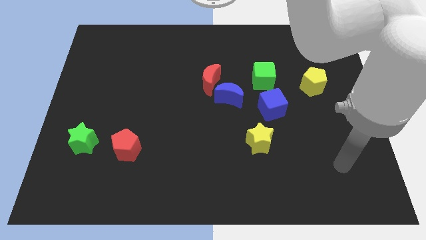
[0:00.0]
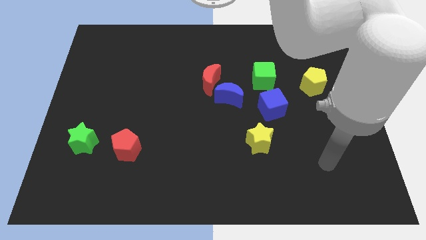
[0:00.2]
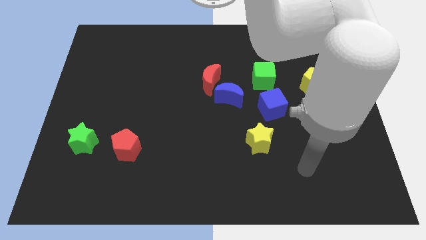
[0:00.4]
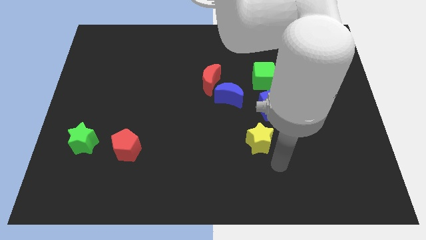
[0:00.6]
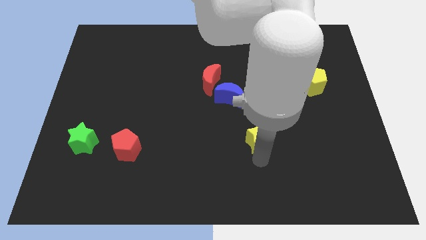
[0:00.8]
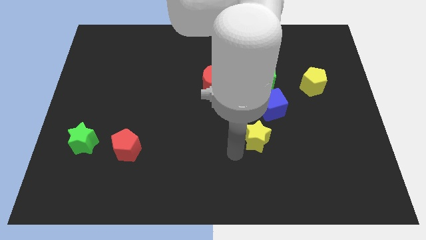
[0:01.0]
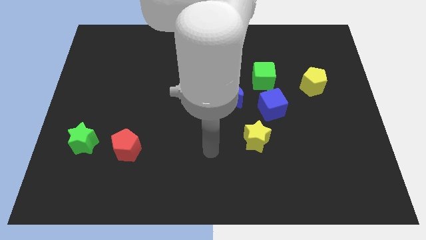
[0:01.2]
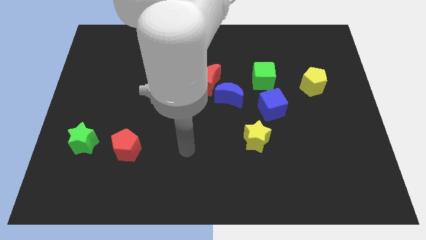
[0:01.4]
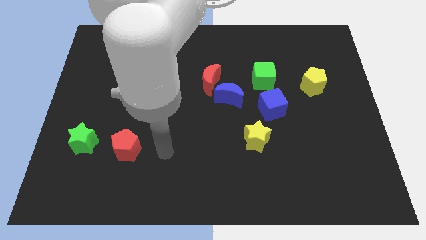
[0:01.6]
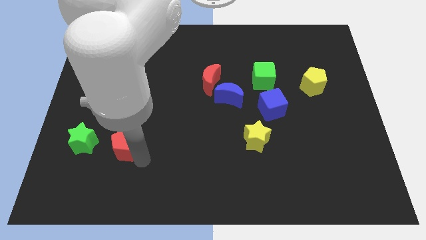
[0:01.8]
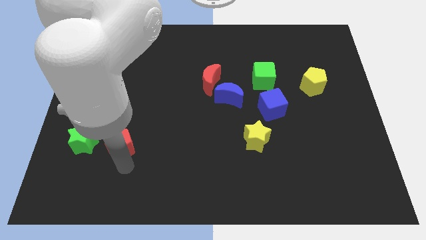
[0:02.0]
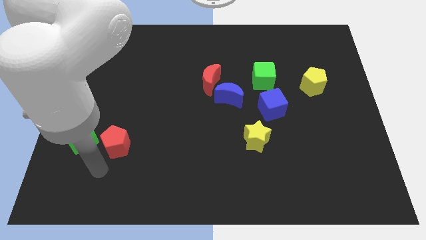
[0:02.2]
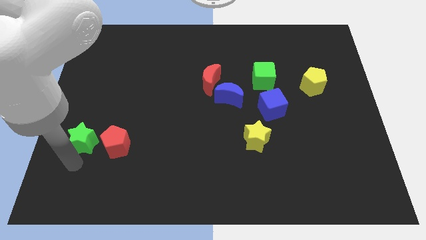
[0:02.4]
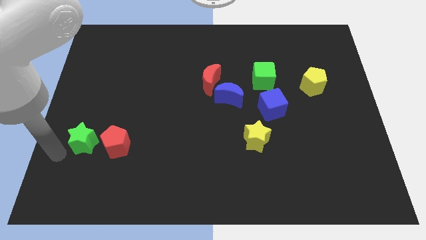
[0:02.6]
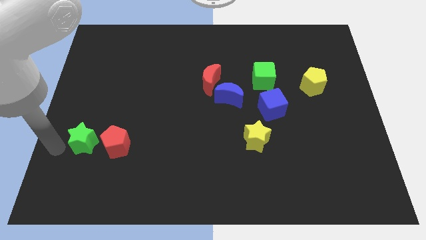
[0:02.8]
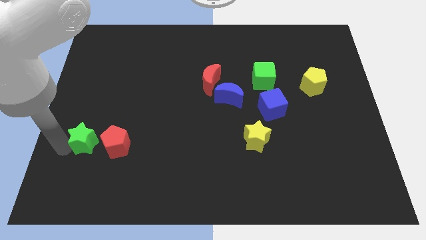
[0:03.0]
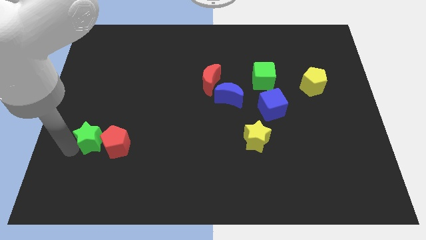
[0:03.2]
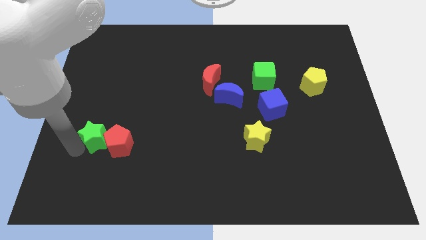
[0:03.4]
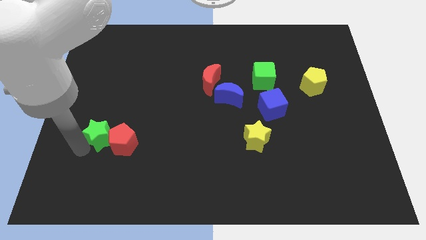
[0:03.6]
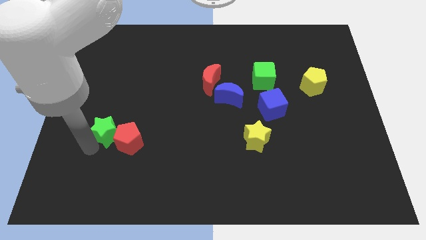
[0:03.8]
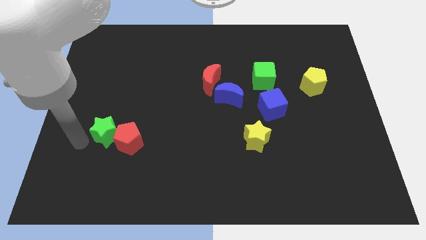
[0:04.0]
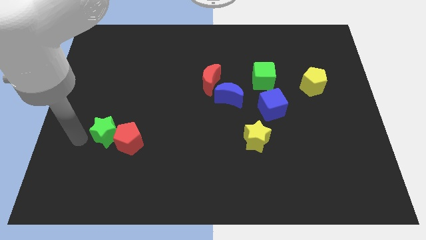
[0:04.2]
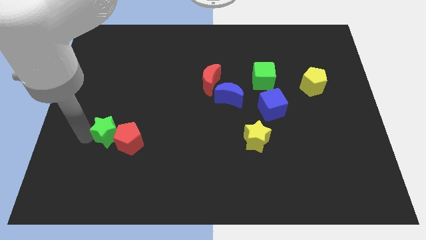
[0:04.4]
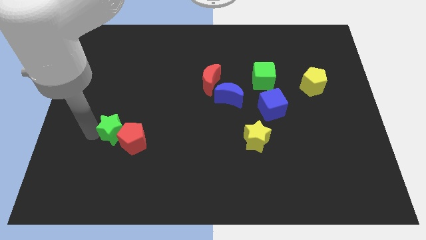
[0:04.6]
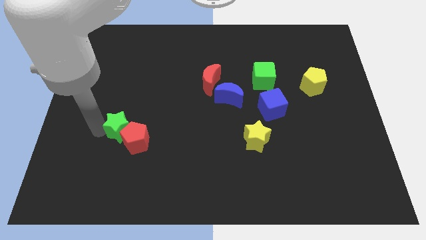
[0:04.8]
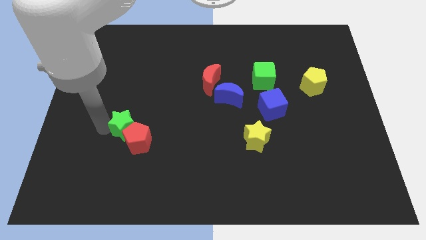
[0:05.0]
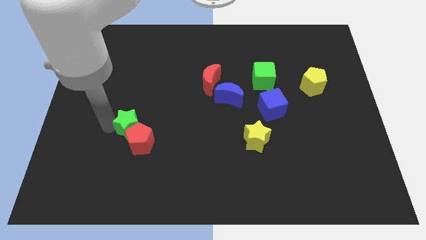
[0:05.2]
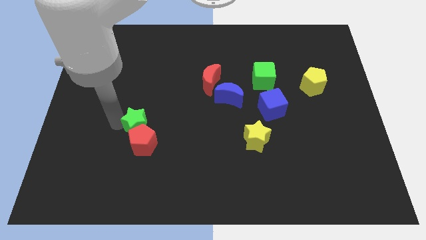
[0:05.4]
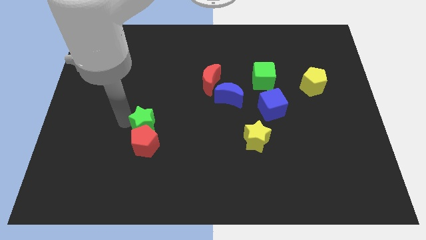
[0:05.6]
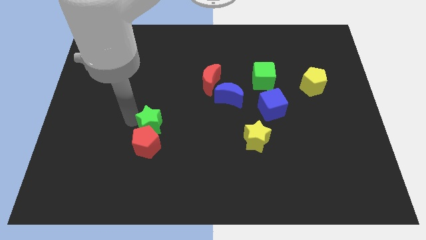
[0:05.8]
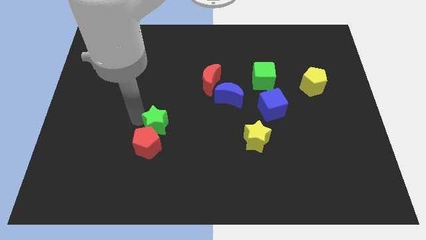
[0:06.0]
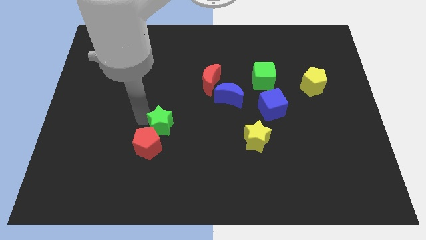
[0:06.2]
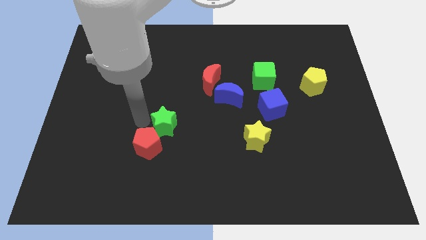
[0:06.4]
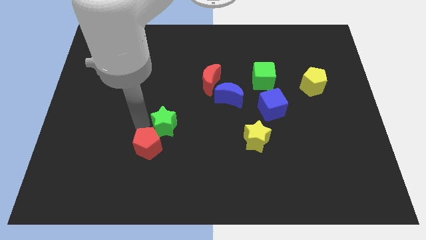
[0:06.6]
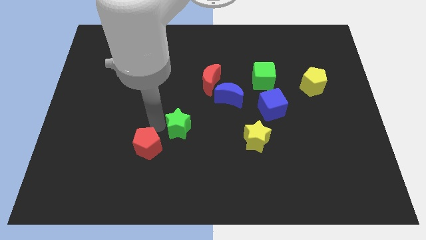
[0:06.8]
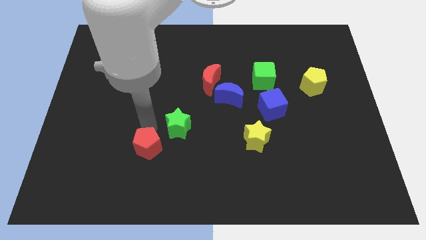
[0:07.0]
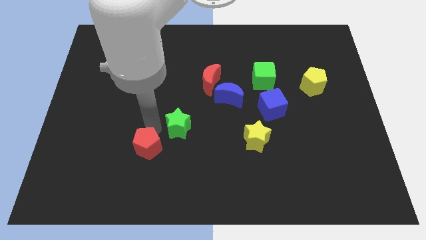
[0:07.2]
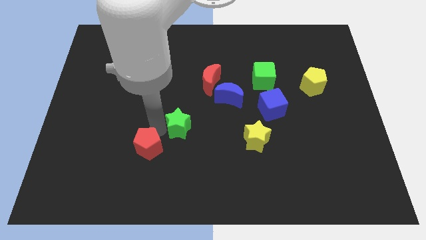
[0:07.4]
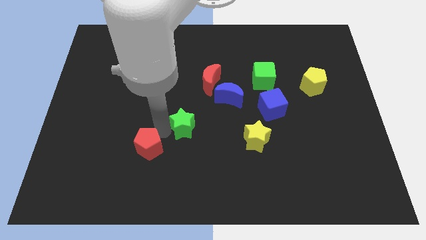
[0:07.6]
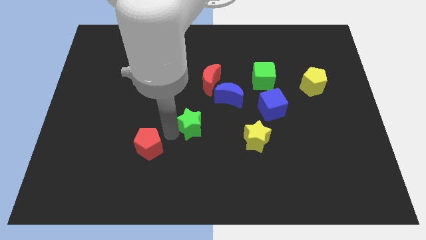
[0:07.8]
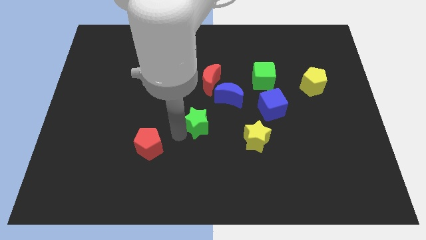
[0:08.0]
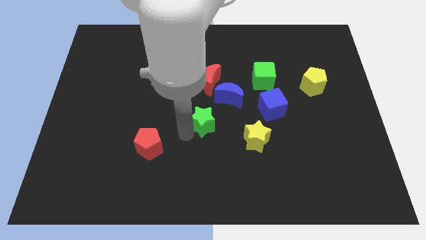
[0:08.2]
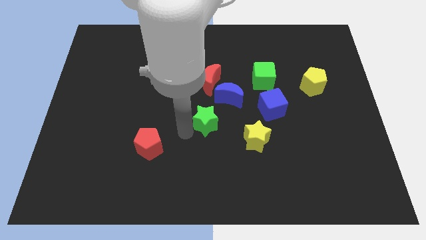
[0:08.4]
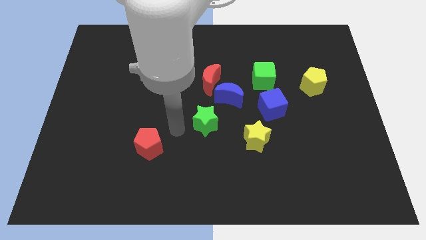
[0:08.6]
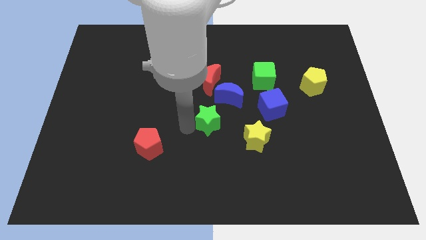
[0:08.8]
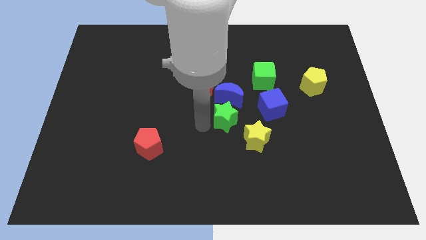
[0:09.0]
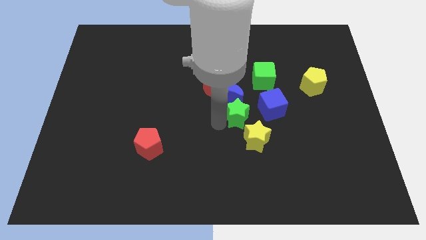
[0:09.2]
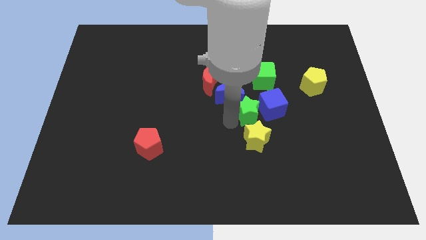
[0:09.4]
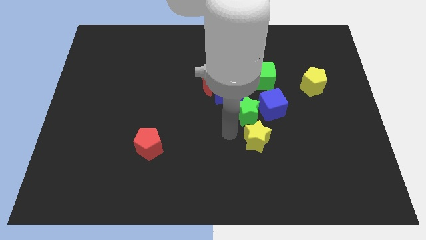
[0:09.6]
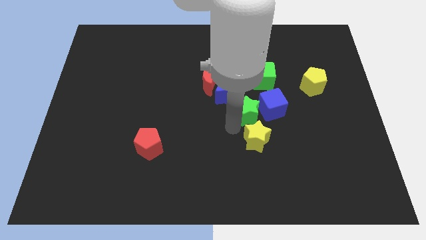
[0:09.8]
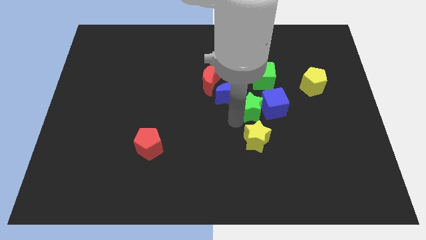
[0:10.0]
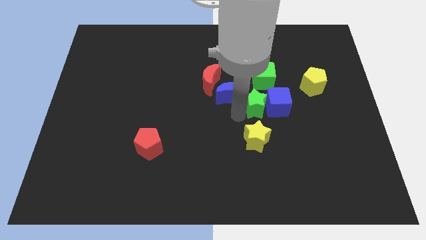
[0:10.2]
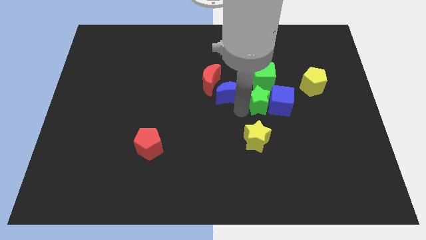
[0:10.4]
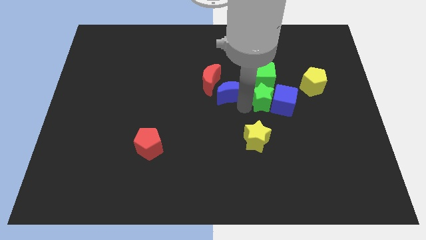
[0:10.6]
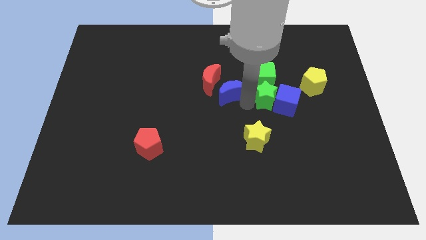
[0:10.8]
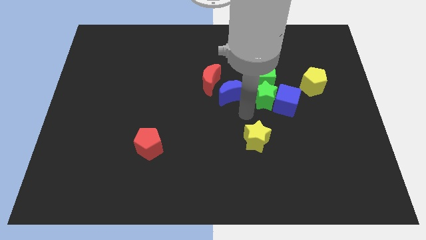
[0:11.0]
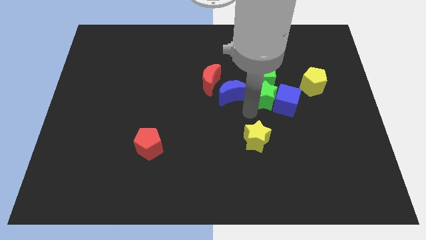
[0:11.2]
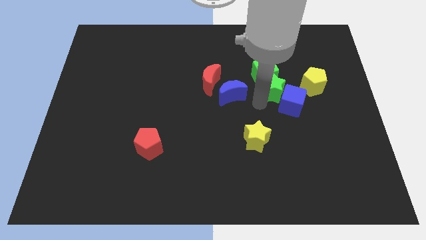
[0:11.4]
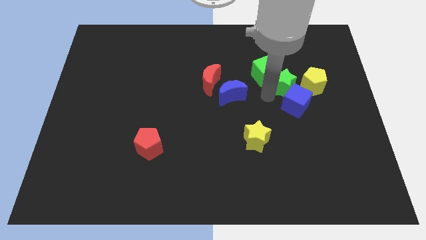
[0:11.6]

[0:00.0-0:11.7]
slide the green star just right of the green cube

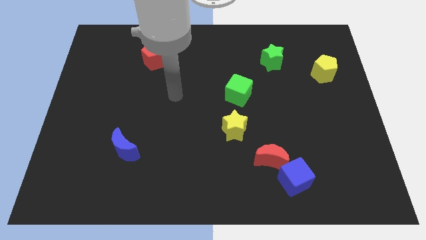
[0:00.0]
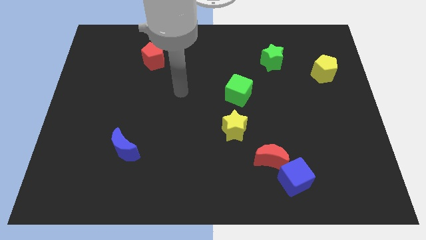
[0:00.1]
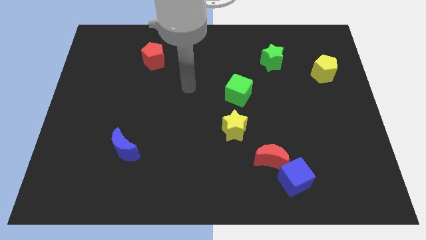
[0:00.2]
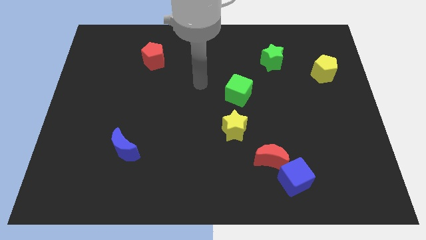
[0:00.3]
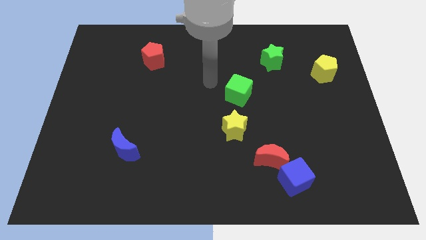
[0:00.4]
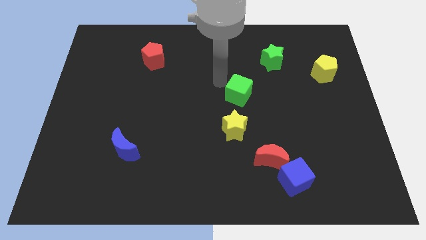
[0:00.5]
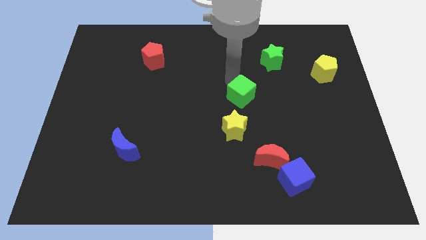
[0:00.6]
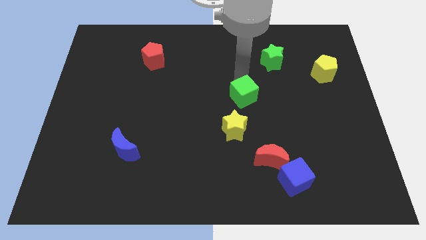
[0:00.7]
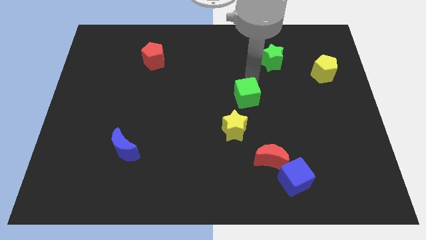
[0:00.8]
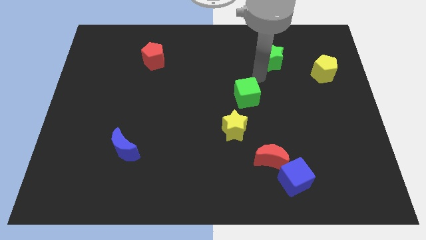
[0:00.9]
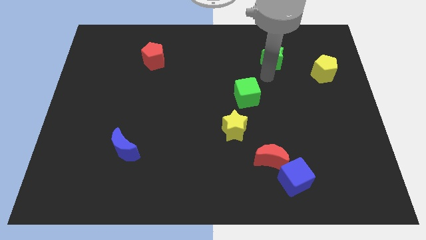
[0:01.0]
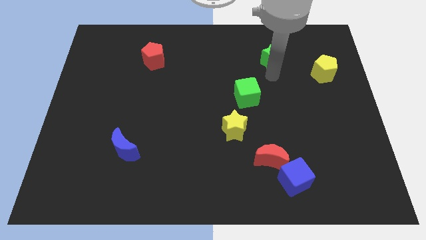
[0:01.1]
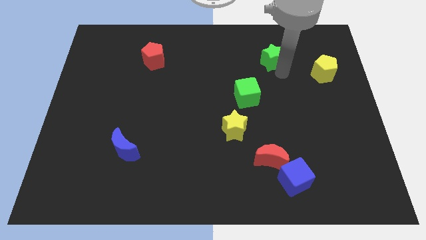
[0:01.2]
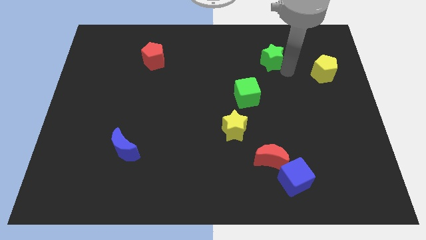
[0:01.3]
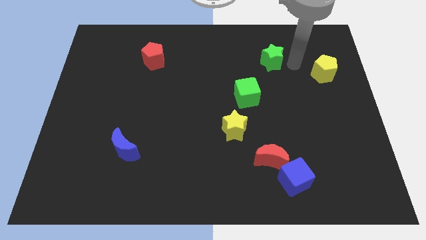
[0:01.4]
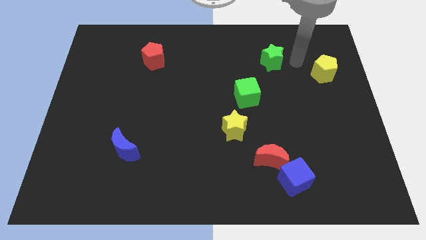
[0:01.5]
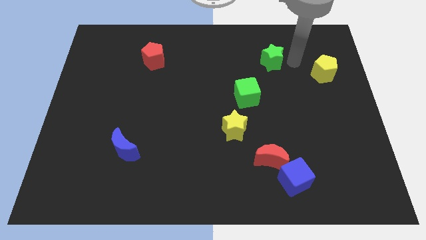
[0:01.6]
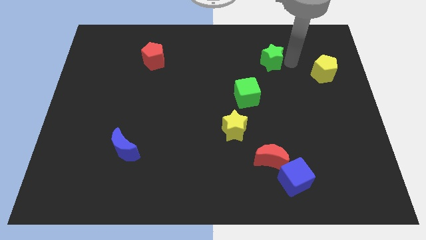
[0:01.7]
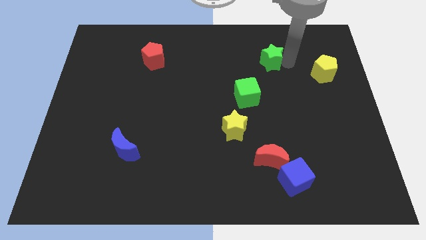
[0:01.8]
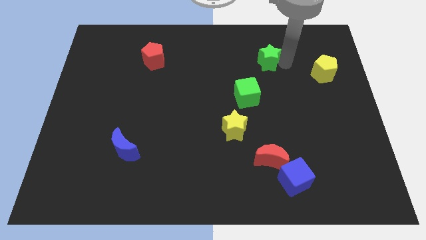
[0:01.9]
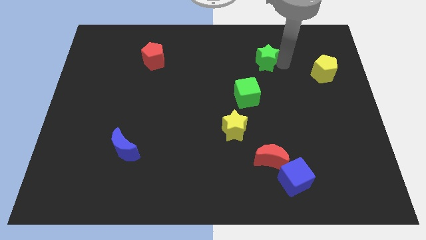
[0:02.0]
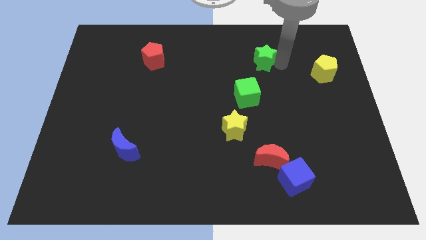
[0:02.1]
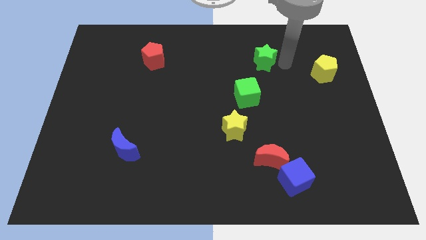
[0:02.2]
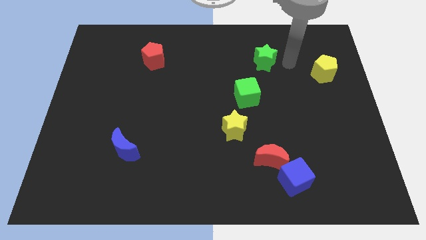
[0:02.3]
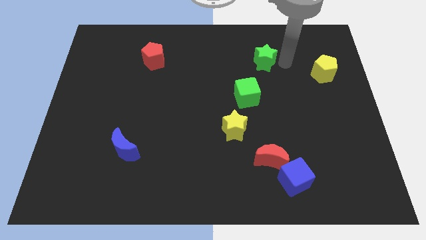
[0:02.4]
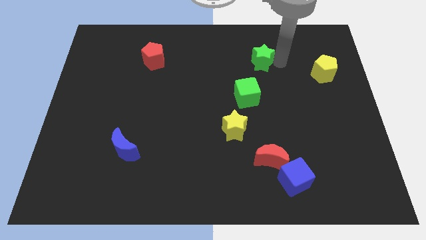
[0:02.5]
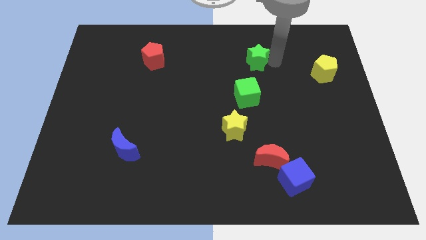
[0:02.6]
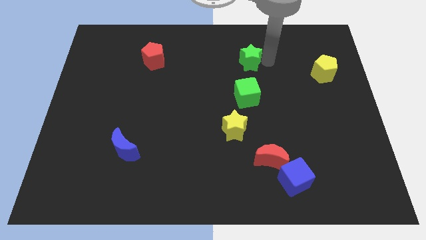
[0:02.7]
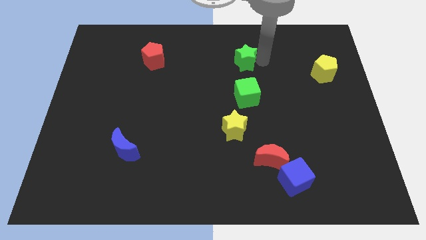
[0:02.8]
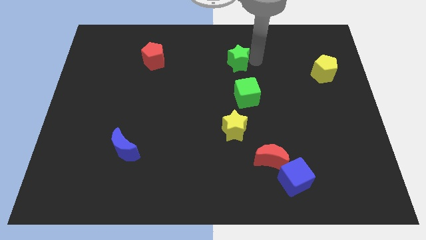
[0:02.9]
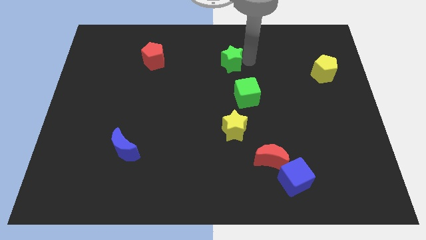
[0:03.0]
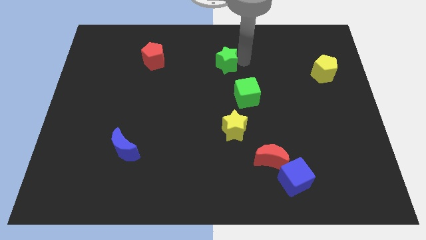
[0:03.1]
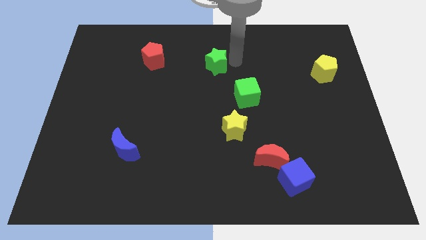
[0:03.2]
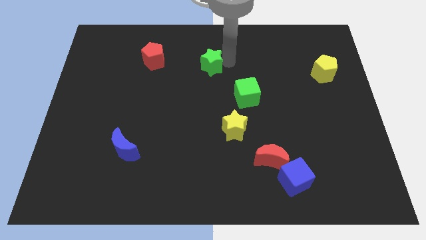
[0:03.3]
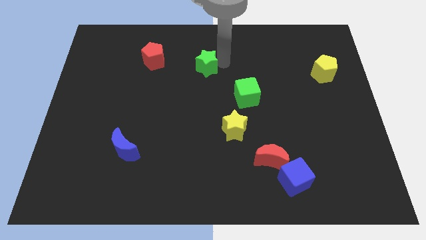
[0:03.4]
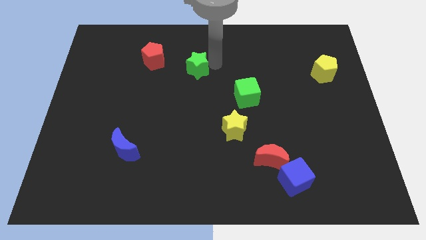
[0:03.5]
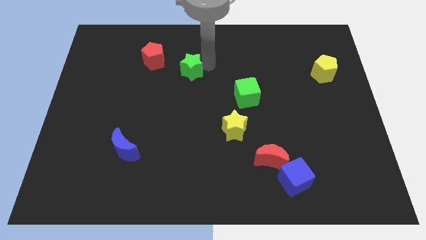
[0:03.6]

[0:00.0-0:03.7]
move the green star to the bottom right of the red pentagon
